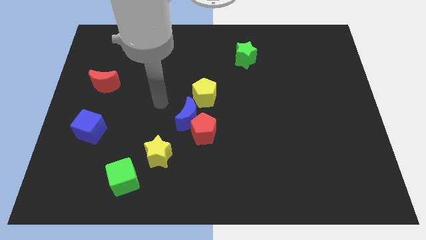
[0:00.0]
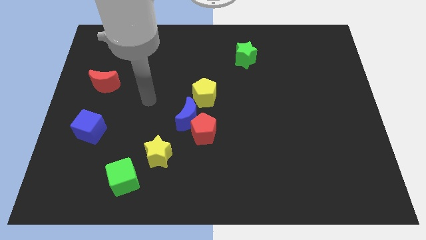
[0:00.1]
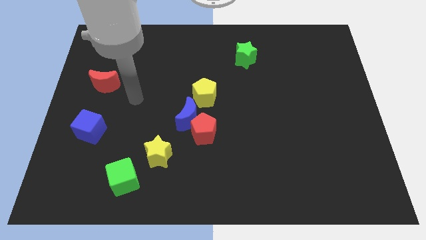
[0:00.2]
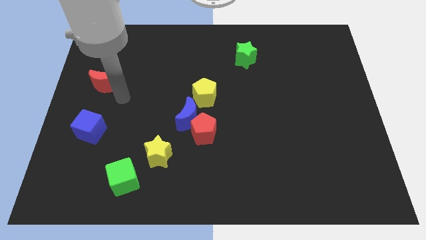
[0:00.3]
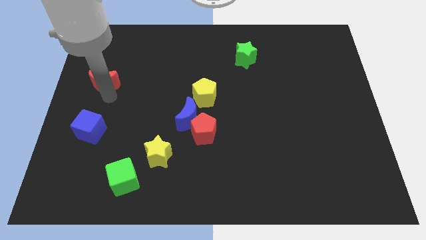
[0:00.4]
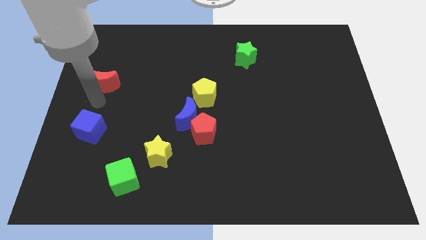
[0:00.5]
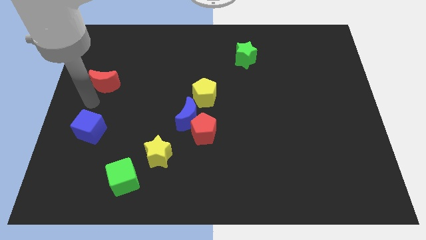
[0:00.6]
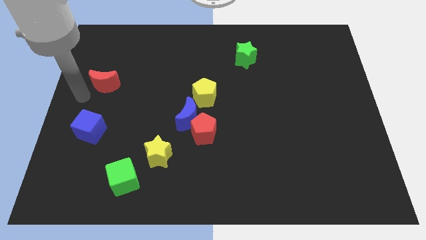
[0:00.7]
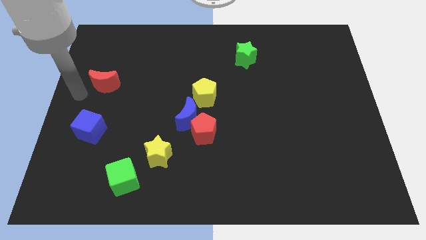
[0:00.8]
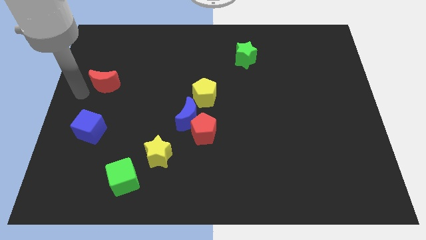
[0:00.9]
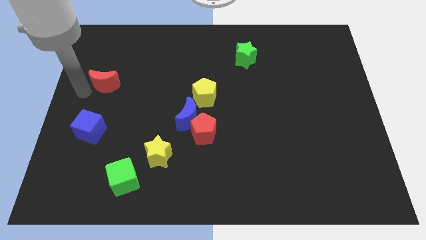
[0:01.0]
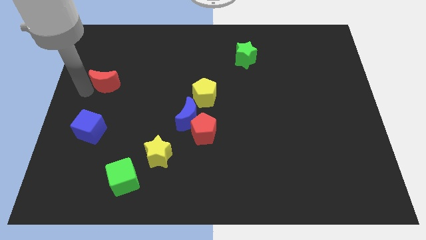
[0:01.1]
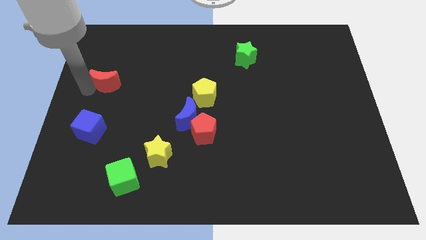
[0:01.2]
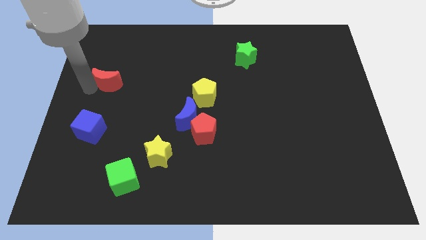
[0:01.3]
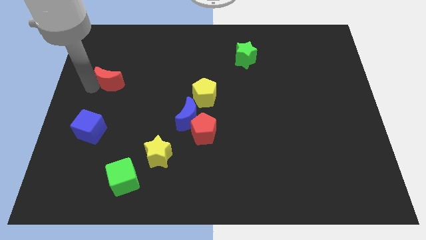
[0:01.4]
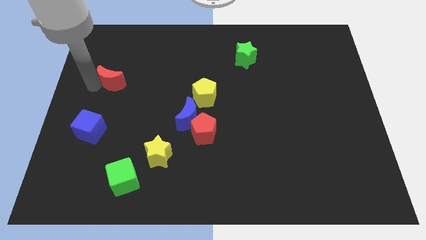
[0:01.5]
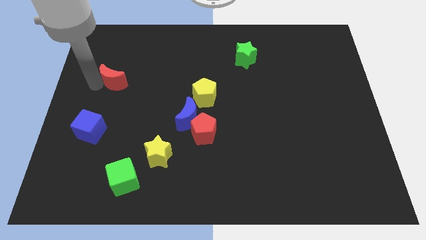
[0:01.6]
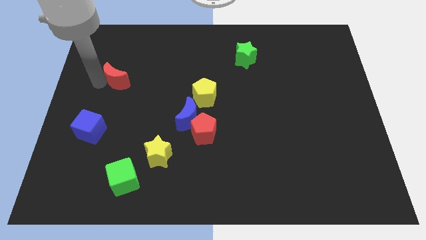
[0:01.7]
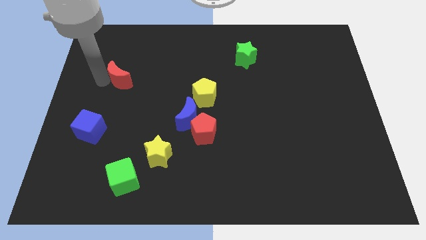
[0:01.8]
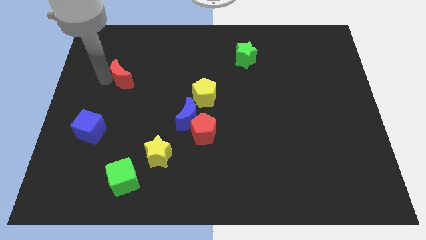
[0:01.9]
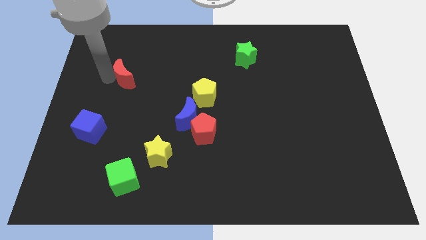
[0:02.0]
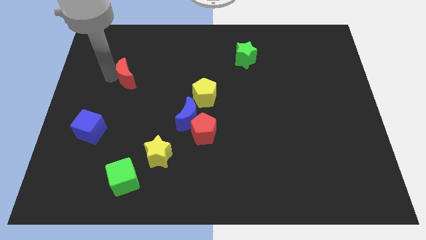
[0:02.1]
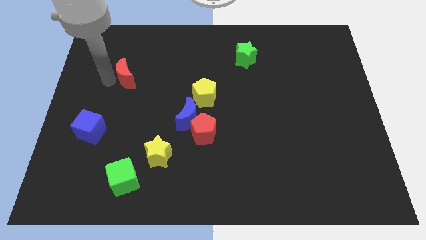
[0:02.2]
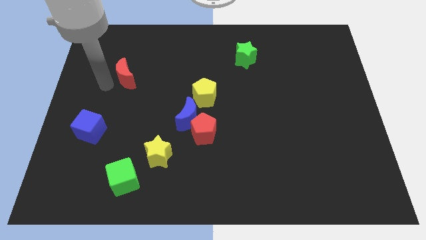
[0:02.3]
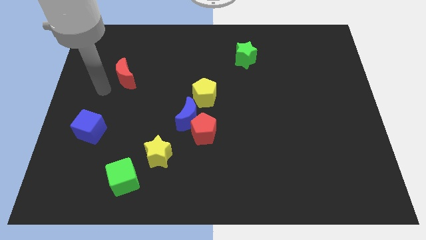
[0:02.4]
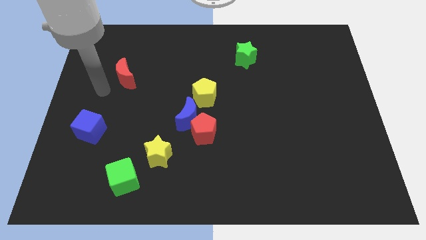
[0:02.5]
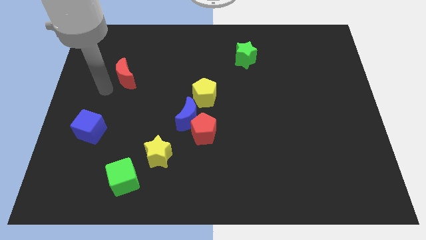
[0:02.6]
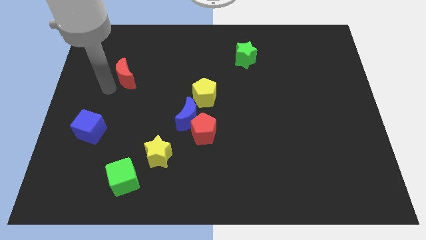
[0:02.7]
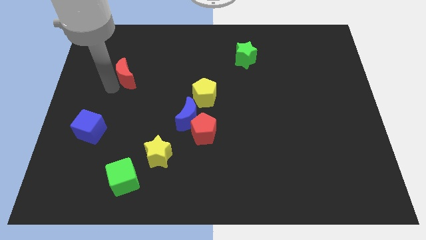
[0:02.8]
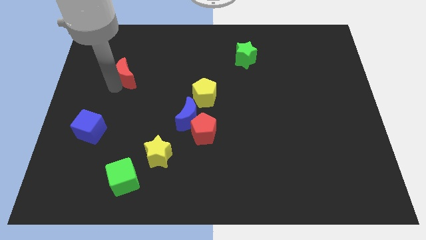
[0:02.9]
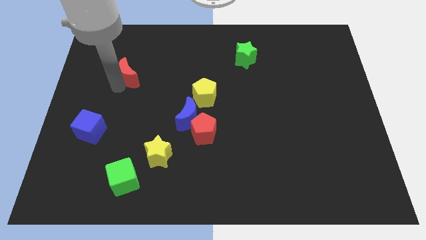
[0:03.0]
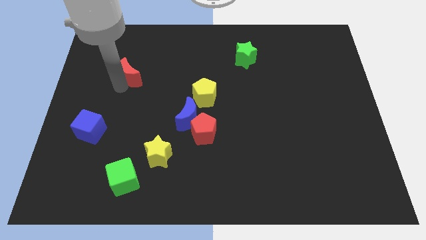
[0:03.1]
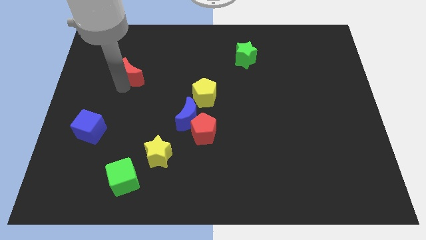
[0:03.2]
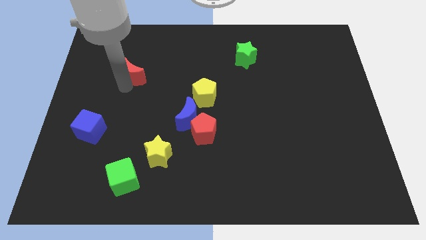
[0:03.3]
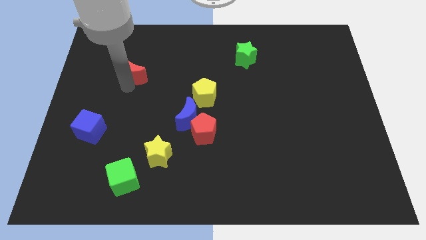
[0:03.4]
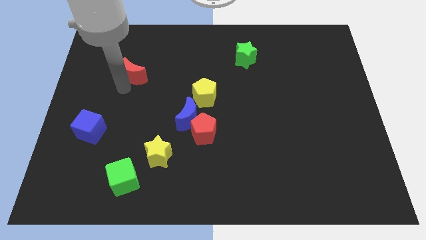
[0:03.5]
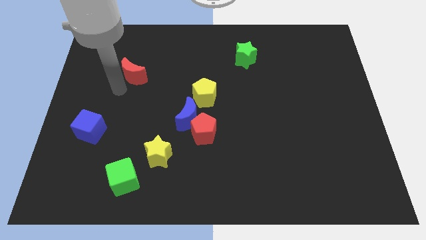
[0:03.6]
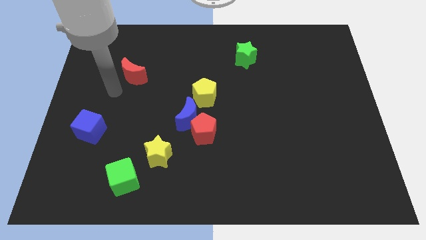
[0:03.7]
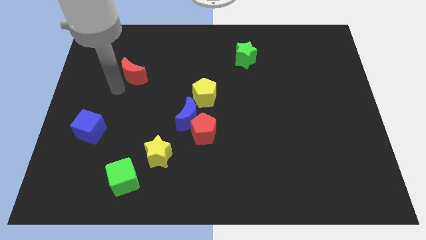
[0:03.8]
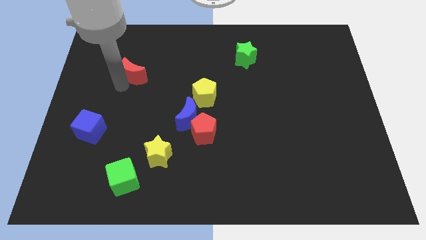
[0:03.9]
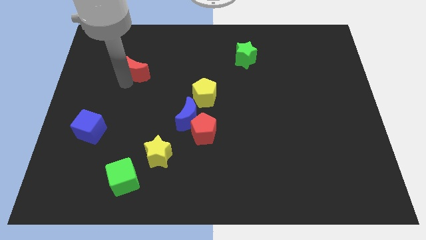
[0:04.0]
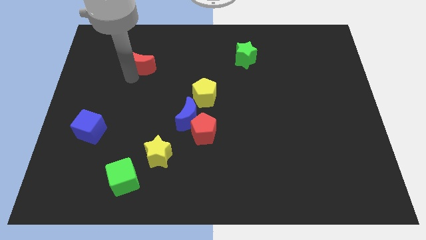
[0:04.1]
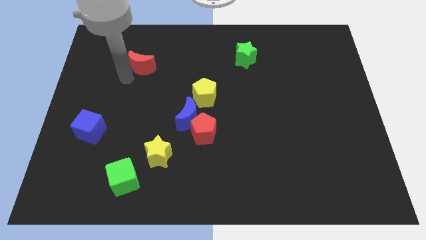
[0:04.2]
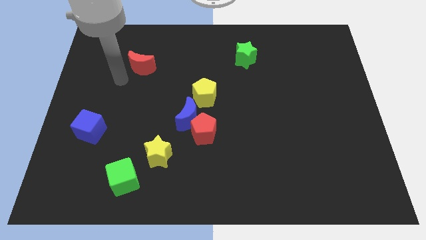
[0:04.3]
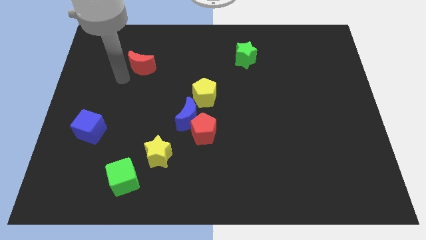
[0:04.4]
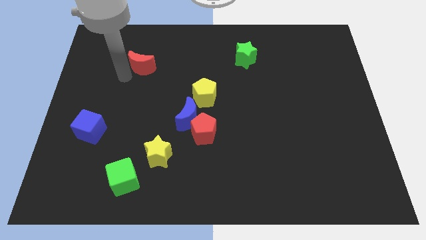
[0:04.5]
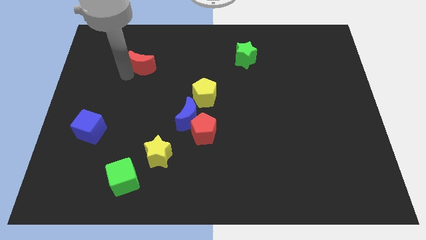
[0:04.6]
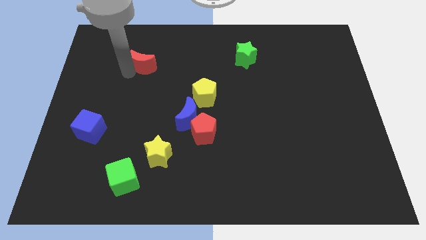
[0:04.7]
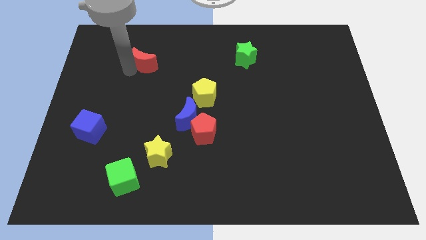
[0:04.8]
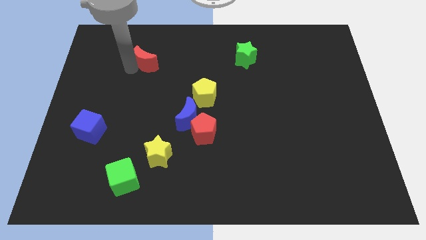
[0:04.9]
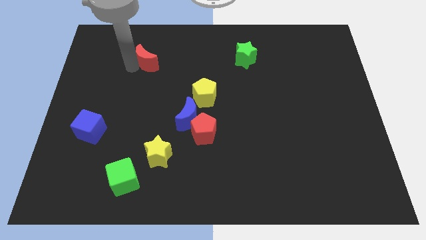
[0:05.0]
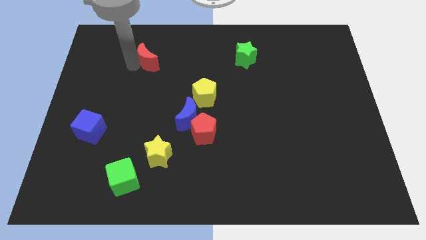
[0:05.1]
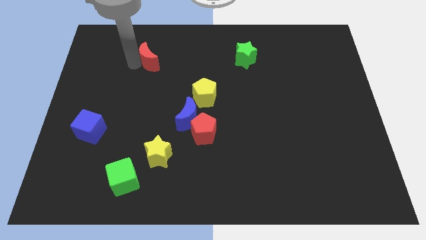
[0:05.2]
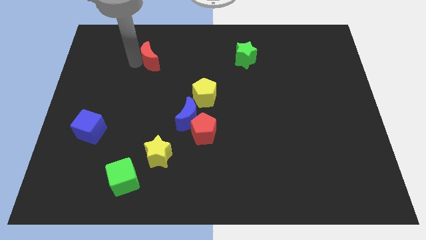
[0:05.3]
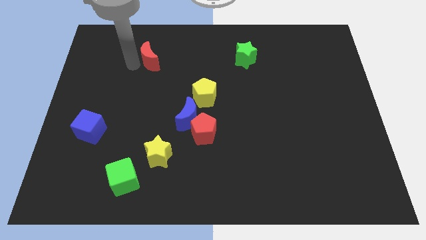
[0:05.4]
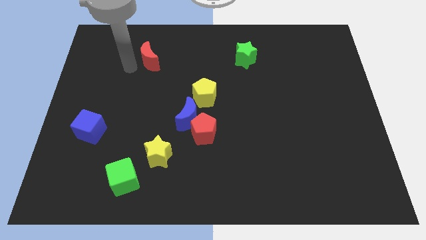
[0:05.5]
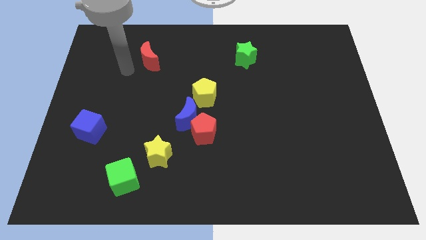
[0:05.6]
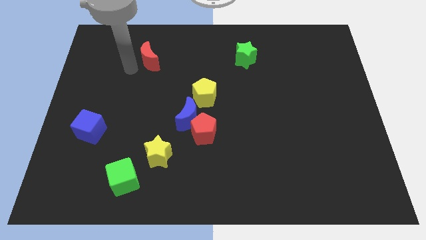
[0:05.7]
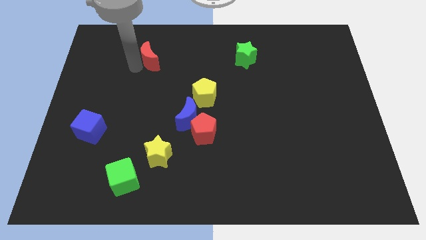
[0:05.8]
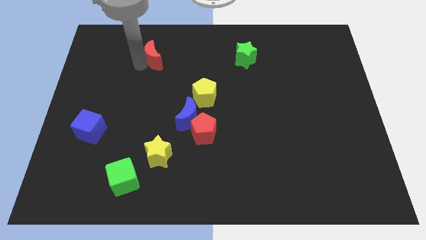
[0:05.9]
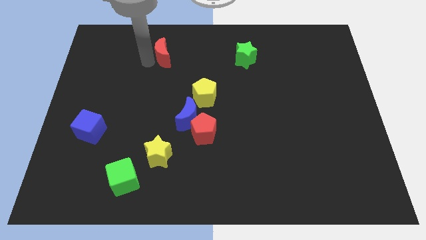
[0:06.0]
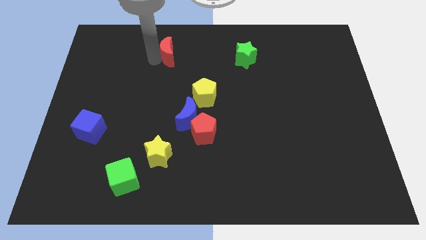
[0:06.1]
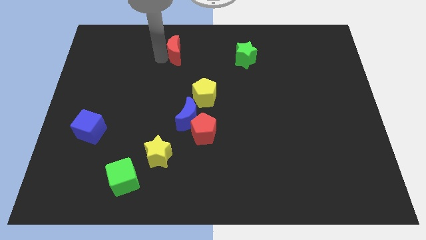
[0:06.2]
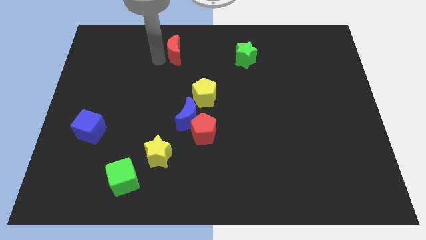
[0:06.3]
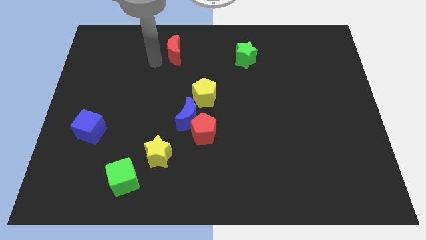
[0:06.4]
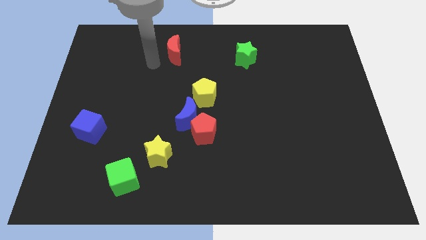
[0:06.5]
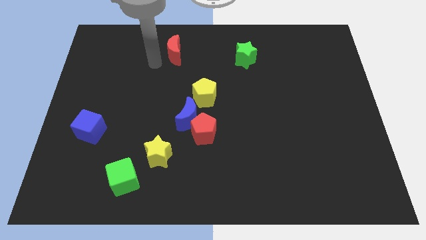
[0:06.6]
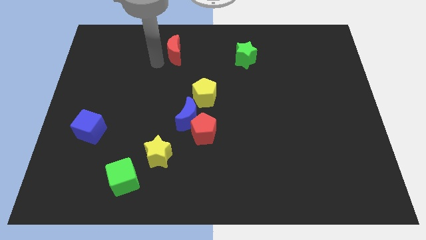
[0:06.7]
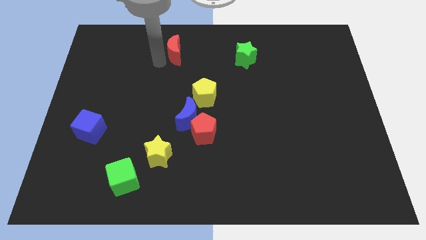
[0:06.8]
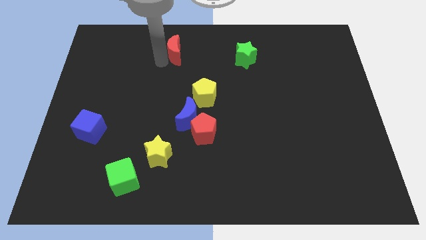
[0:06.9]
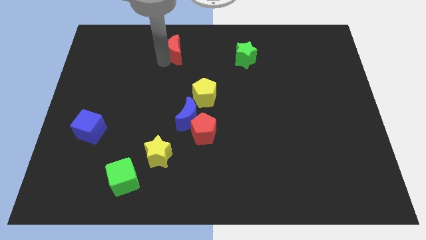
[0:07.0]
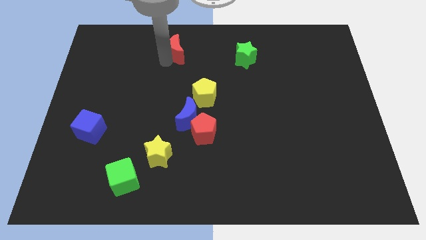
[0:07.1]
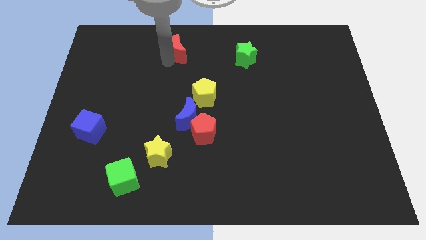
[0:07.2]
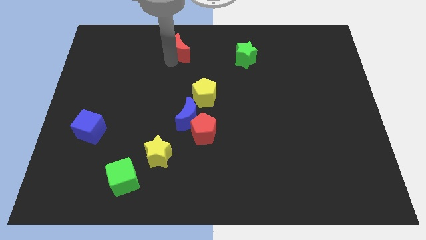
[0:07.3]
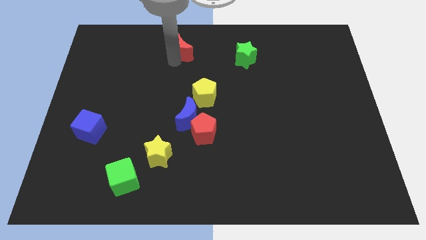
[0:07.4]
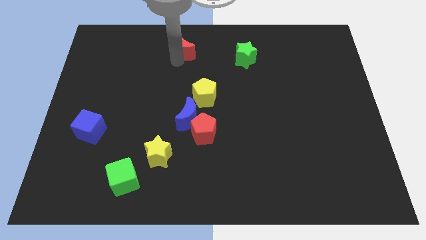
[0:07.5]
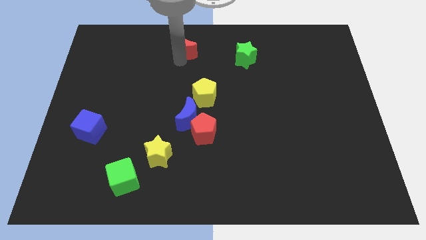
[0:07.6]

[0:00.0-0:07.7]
push the red moon to the top
